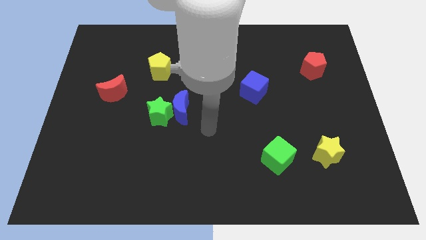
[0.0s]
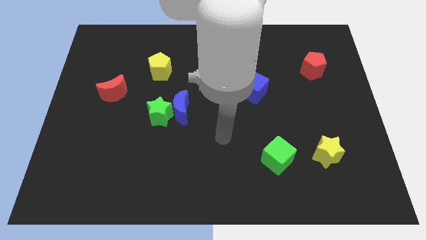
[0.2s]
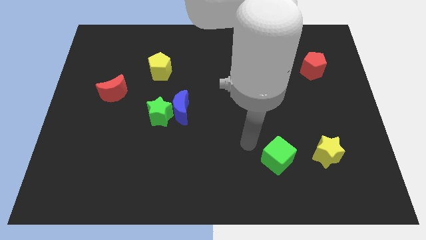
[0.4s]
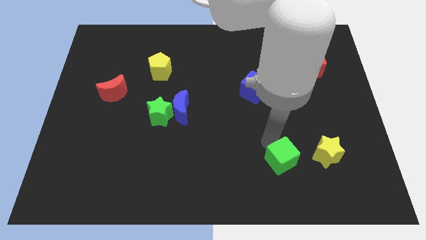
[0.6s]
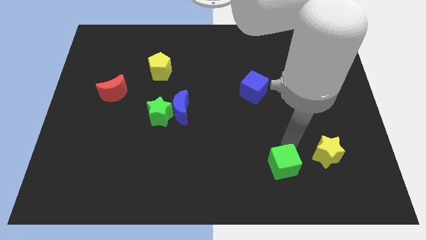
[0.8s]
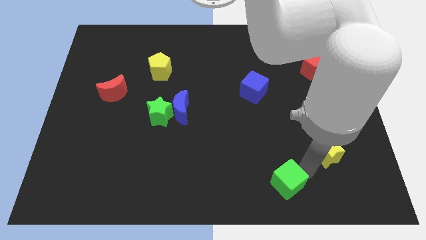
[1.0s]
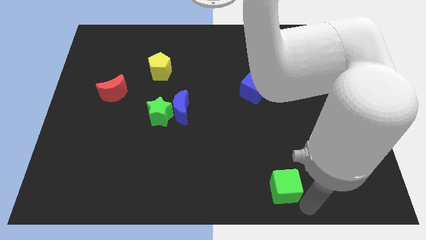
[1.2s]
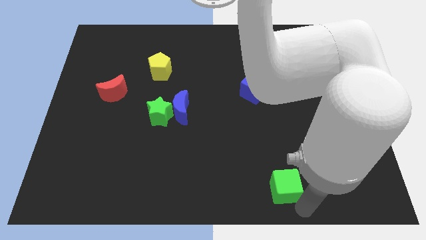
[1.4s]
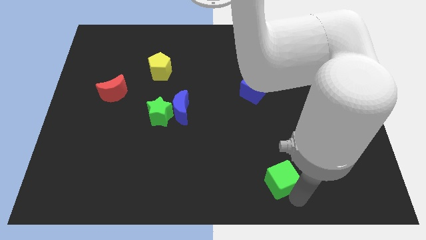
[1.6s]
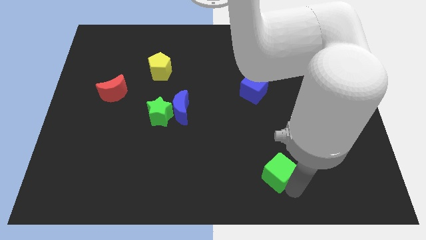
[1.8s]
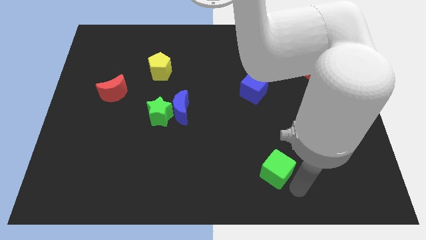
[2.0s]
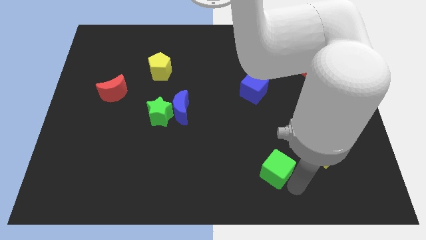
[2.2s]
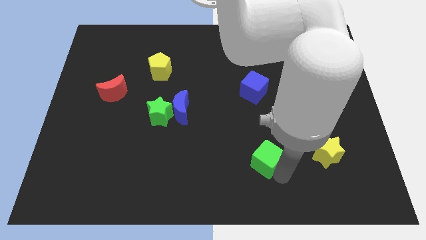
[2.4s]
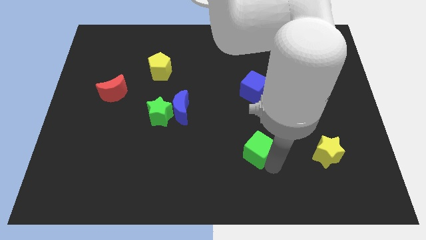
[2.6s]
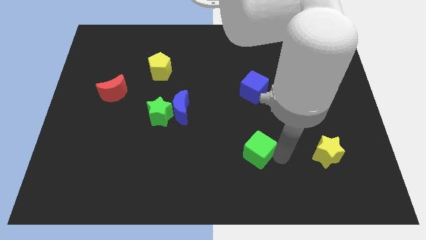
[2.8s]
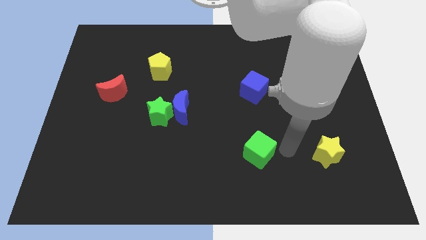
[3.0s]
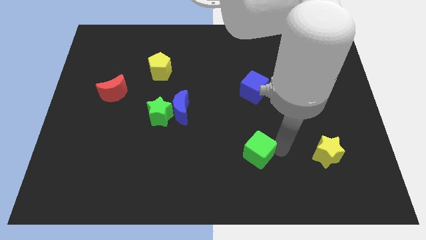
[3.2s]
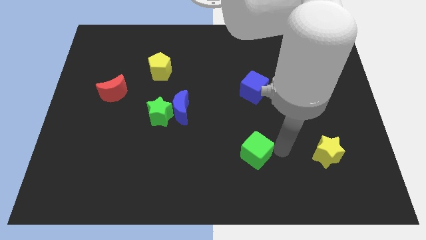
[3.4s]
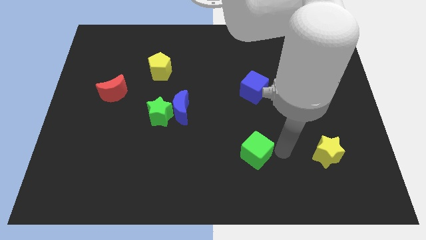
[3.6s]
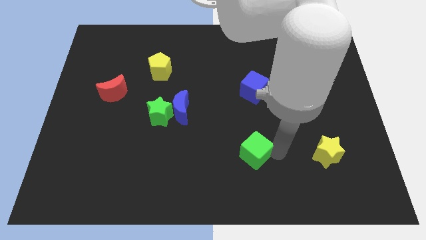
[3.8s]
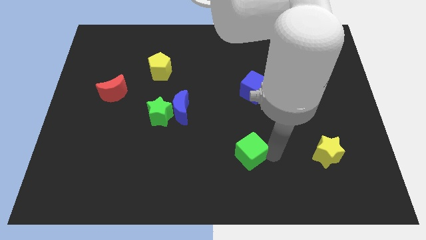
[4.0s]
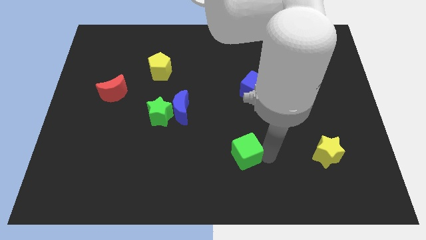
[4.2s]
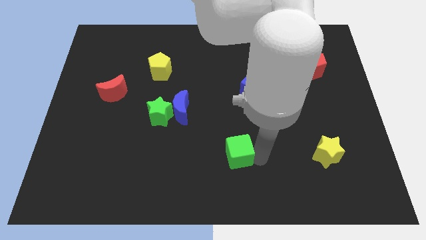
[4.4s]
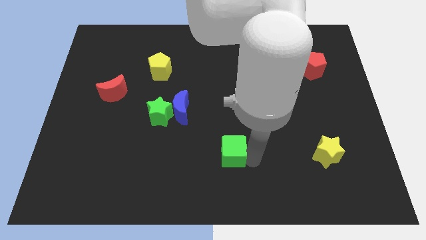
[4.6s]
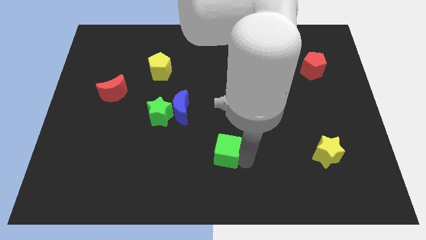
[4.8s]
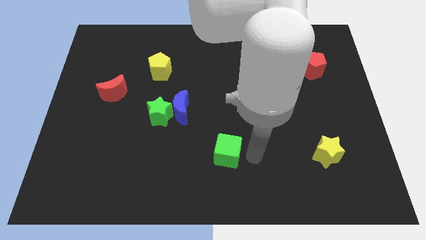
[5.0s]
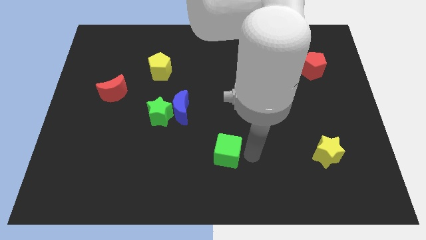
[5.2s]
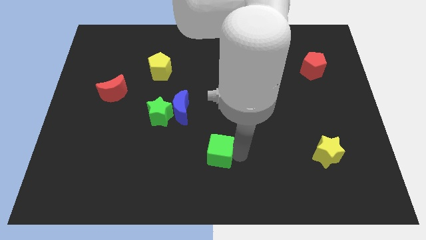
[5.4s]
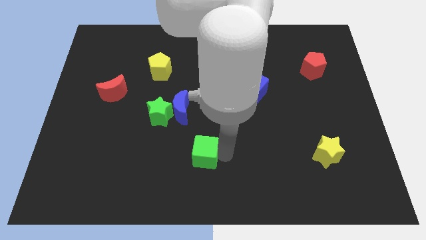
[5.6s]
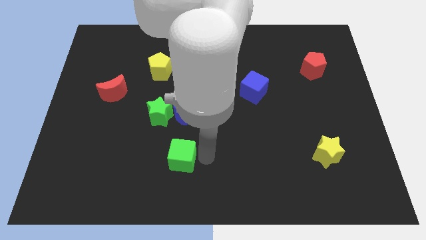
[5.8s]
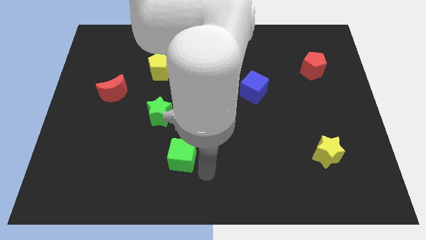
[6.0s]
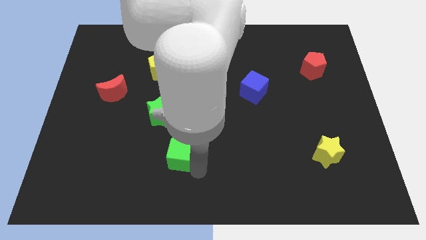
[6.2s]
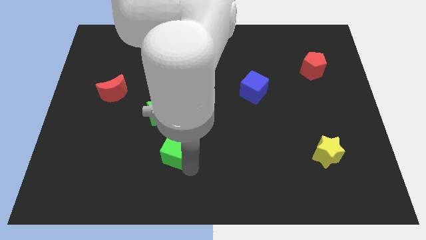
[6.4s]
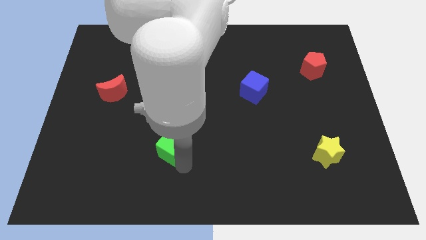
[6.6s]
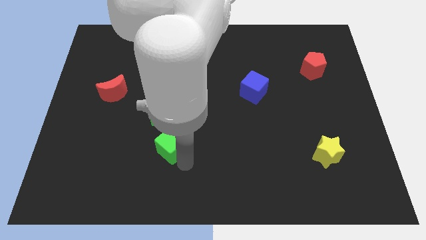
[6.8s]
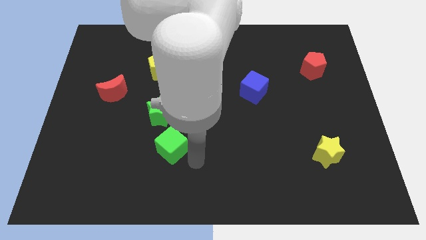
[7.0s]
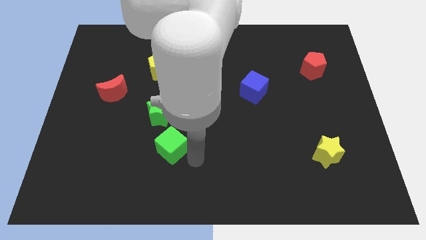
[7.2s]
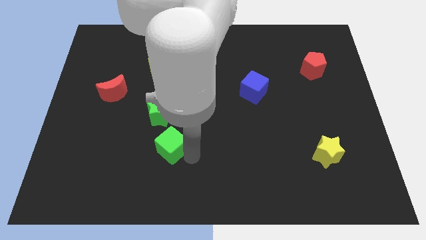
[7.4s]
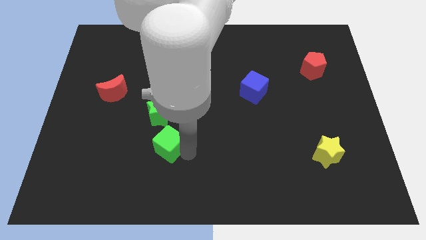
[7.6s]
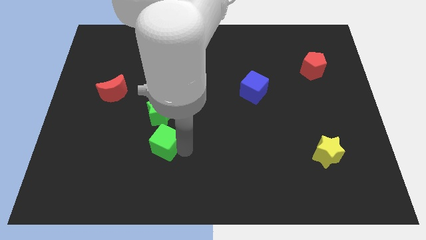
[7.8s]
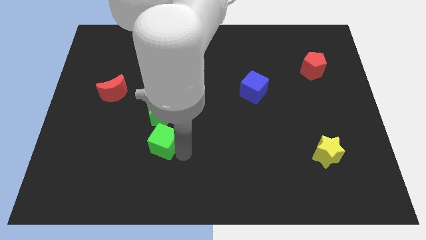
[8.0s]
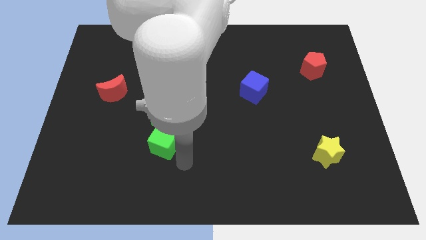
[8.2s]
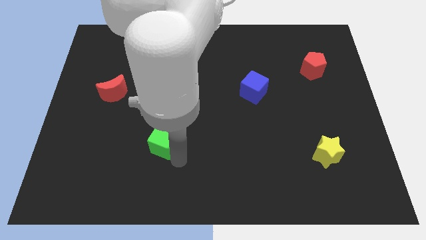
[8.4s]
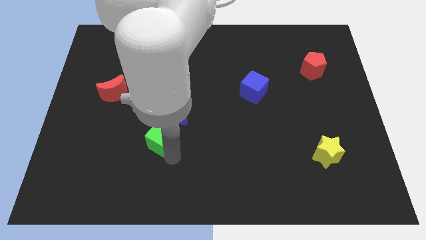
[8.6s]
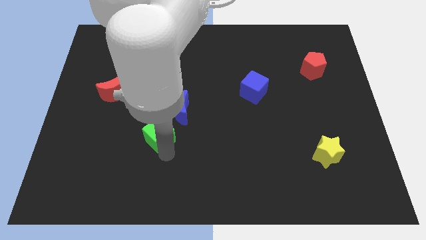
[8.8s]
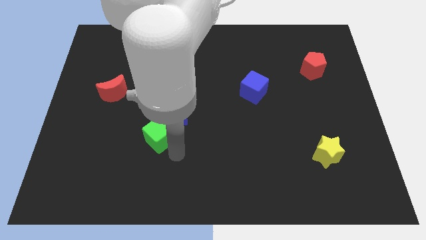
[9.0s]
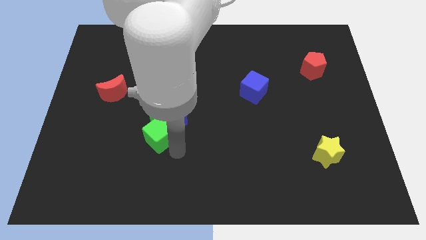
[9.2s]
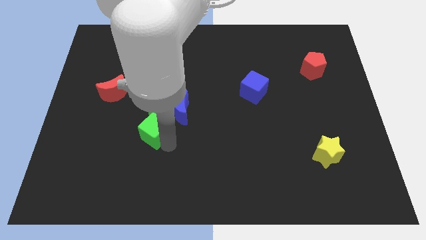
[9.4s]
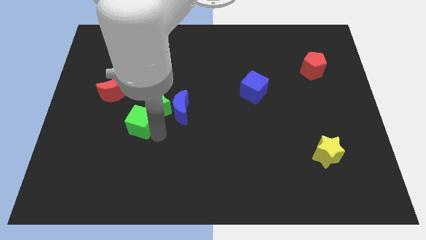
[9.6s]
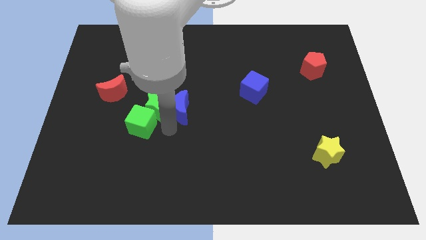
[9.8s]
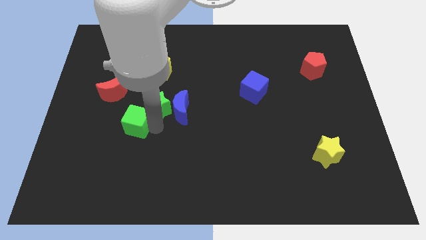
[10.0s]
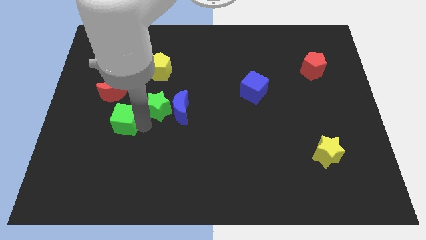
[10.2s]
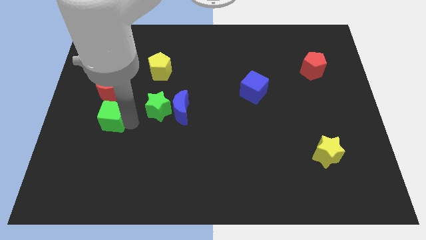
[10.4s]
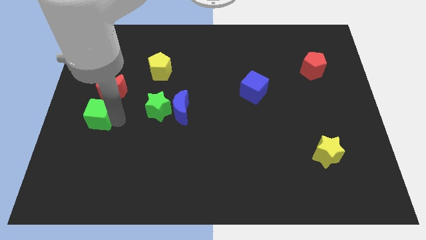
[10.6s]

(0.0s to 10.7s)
put the green cube to the left side of the board

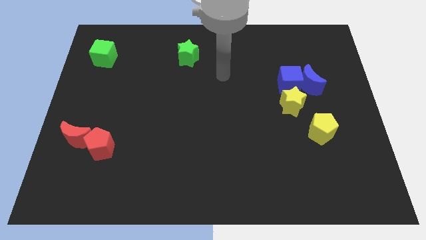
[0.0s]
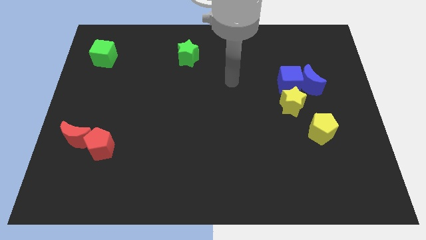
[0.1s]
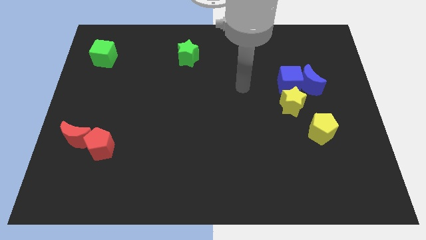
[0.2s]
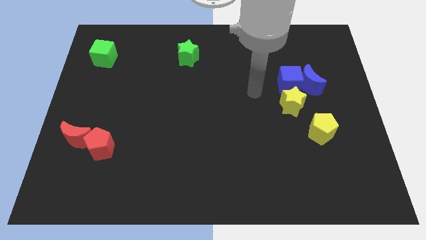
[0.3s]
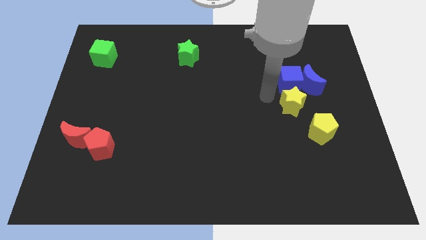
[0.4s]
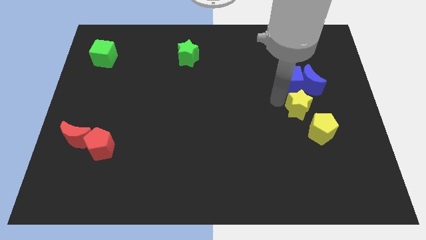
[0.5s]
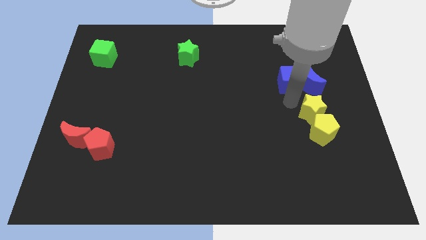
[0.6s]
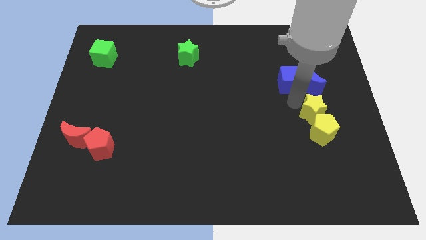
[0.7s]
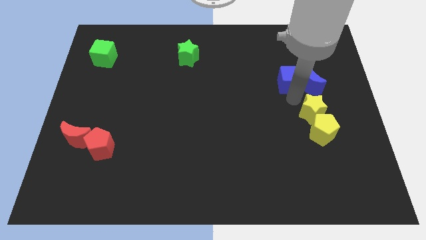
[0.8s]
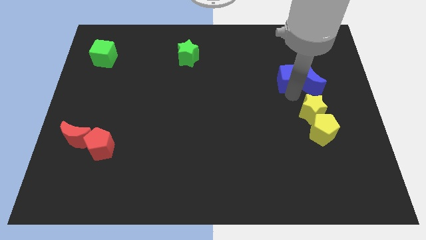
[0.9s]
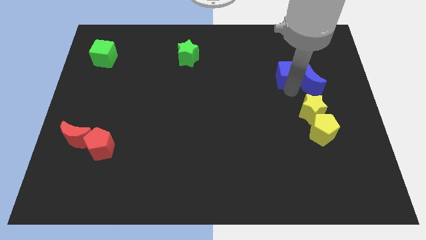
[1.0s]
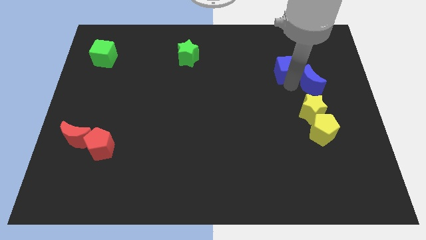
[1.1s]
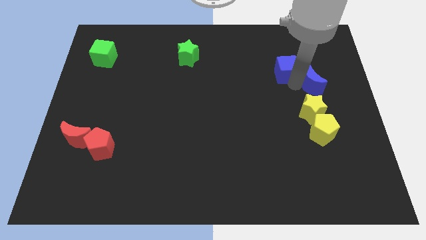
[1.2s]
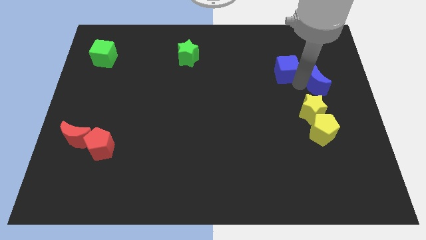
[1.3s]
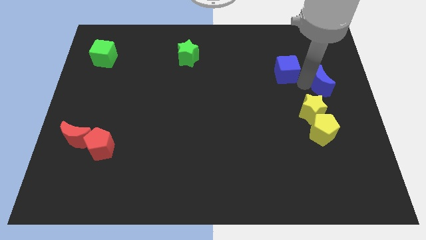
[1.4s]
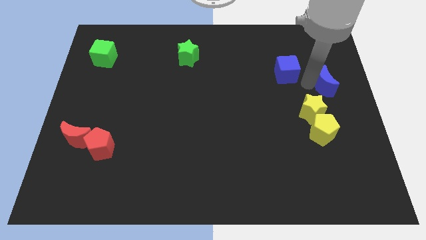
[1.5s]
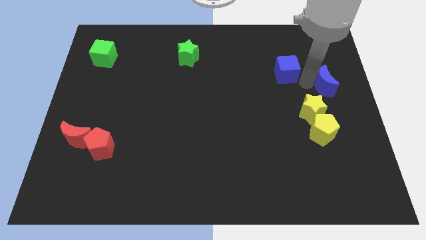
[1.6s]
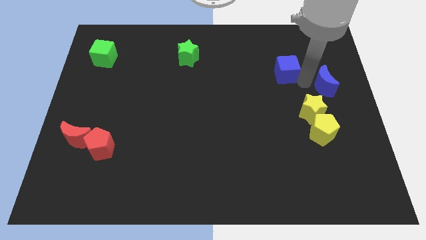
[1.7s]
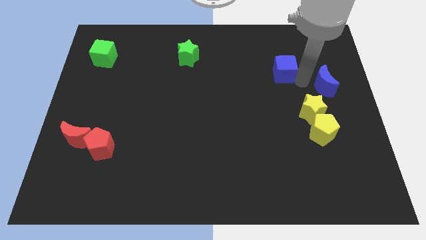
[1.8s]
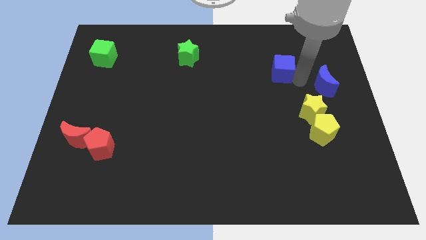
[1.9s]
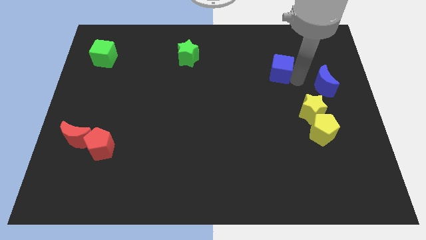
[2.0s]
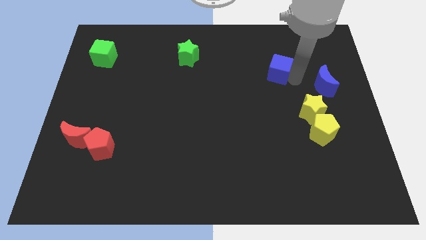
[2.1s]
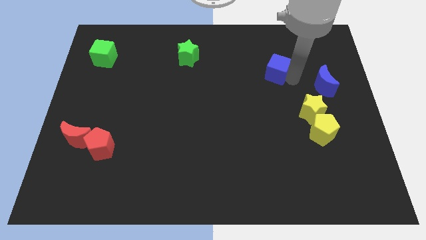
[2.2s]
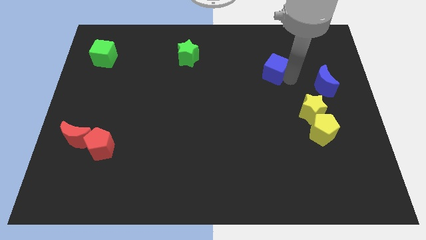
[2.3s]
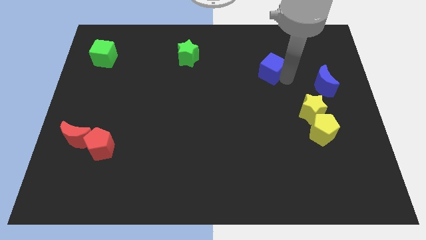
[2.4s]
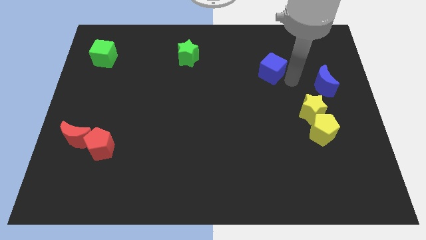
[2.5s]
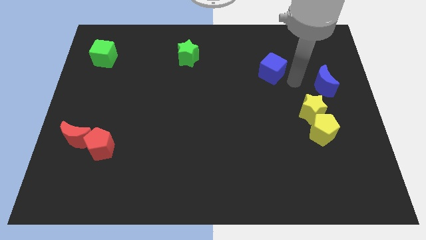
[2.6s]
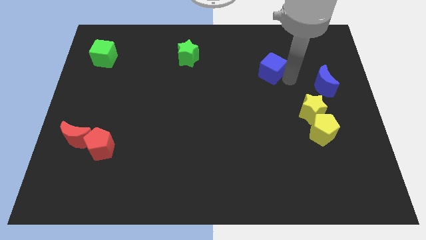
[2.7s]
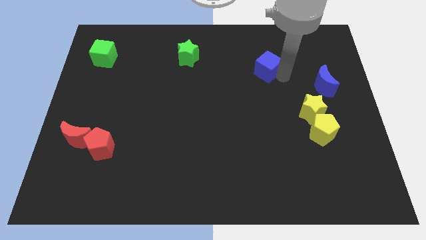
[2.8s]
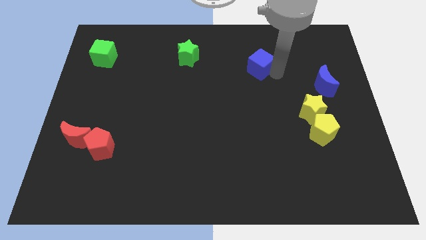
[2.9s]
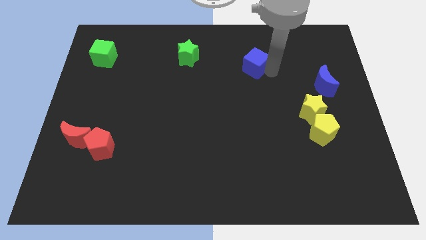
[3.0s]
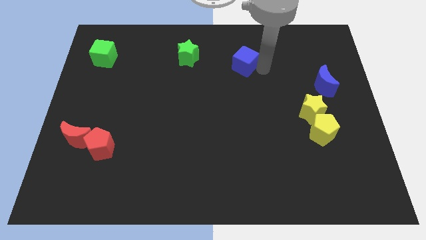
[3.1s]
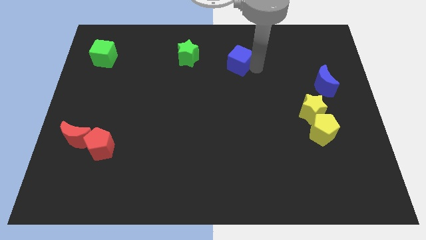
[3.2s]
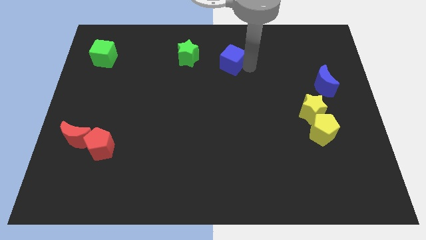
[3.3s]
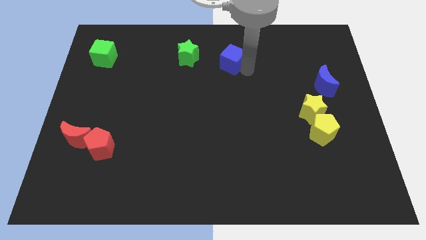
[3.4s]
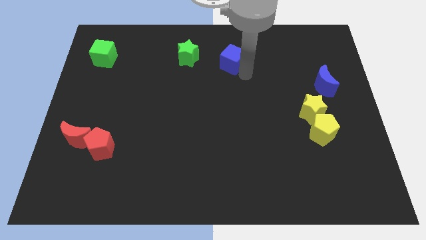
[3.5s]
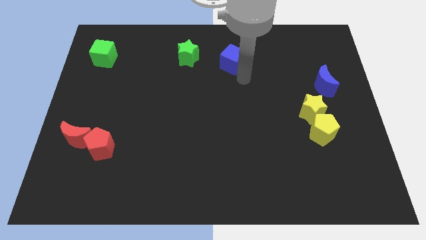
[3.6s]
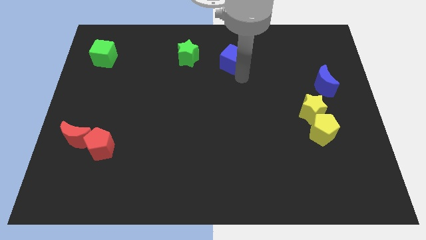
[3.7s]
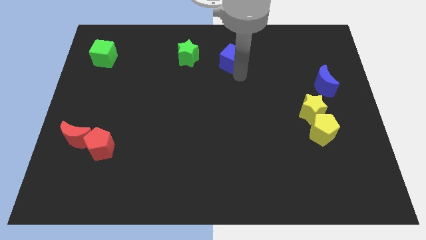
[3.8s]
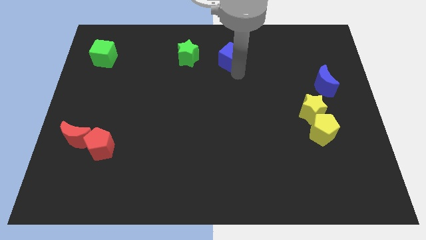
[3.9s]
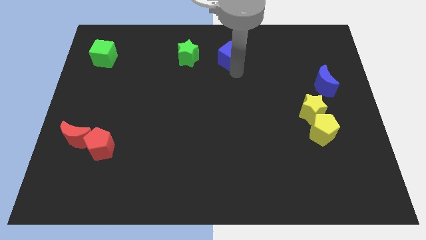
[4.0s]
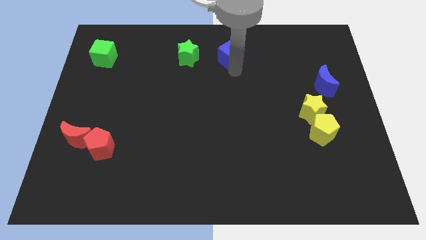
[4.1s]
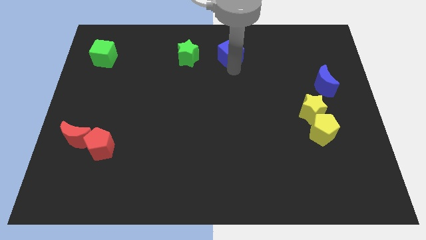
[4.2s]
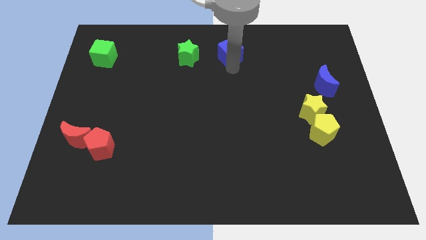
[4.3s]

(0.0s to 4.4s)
push the blue cube to the top
